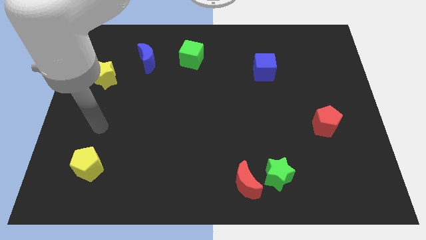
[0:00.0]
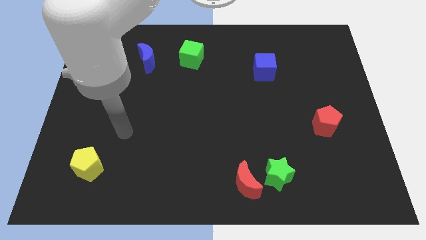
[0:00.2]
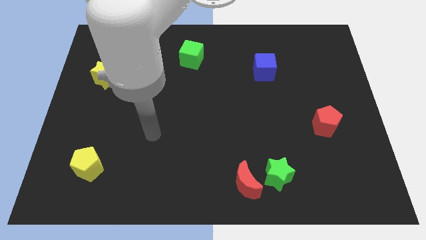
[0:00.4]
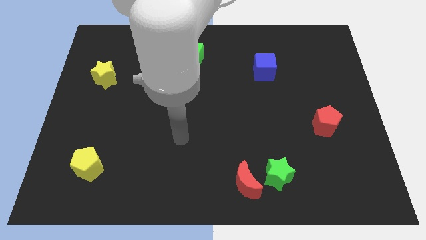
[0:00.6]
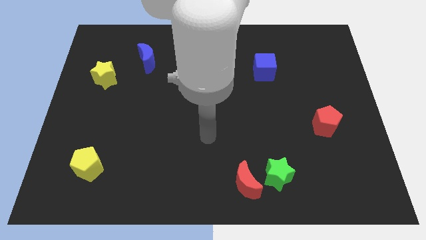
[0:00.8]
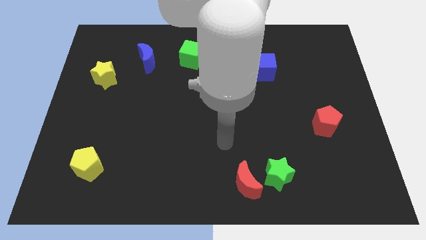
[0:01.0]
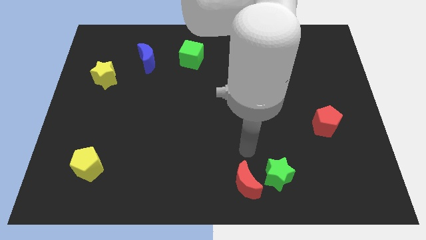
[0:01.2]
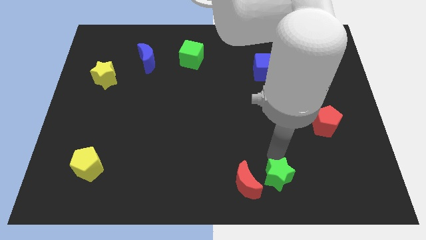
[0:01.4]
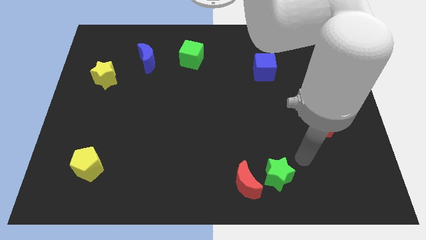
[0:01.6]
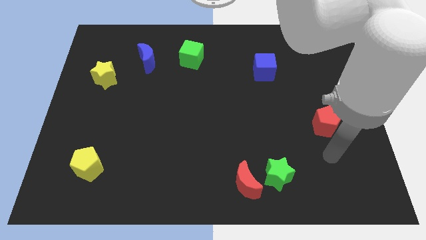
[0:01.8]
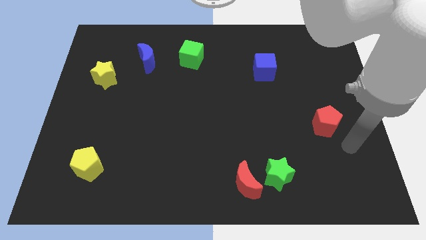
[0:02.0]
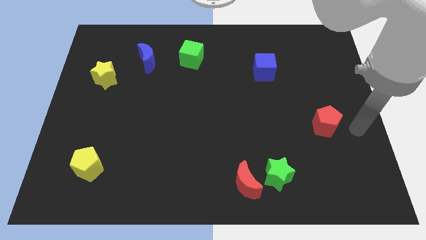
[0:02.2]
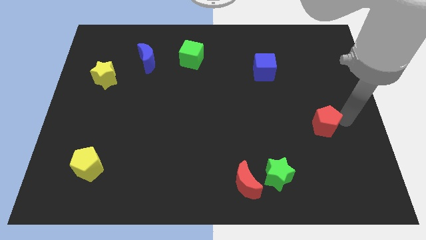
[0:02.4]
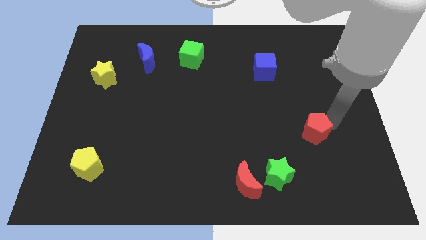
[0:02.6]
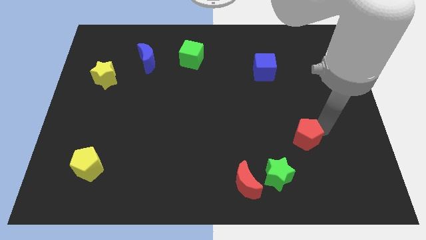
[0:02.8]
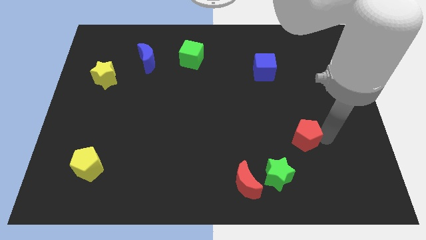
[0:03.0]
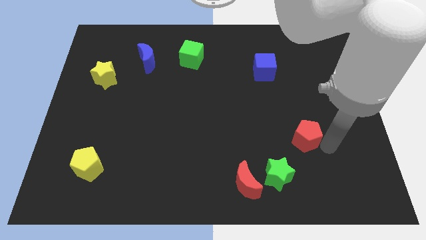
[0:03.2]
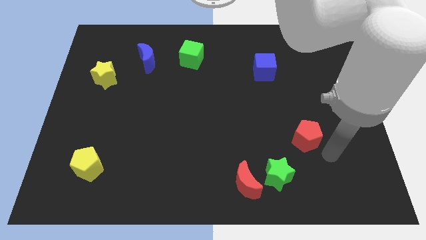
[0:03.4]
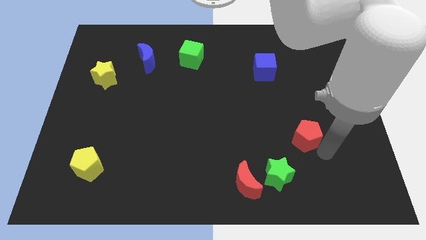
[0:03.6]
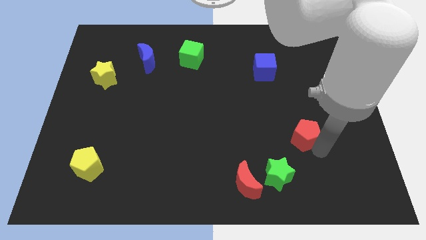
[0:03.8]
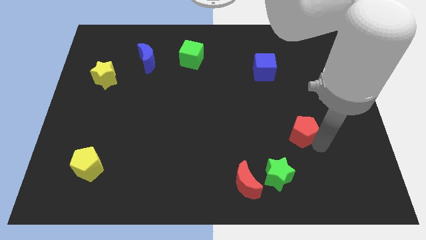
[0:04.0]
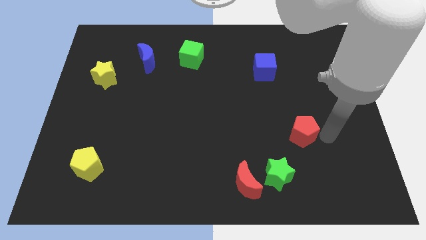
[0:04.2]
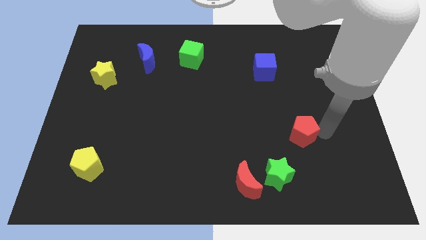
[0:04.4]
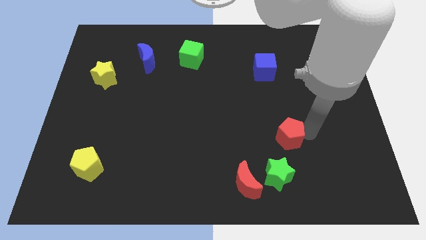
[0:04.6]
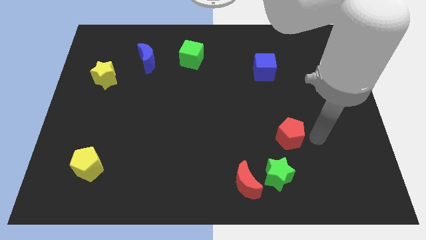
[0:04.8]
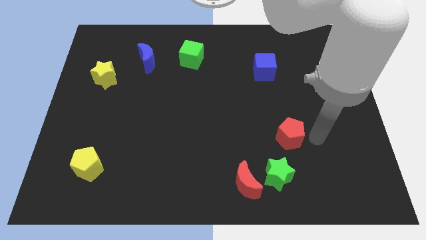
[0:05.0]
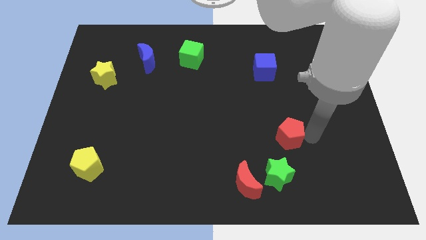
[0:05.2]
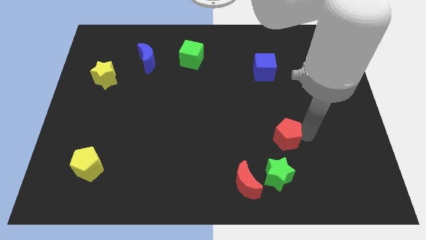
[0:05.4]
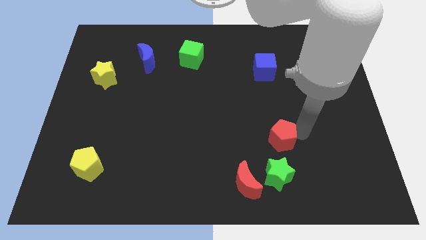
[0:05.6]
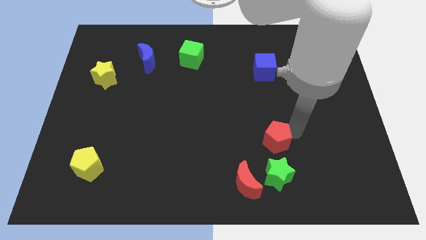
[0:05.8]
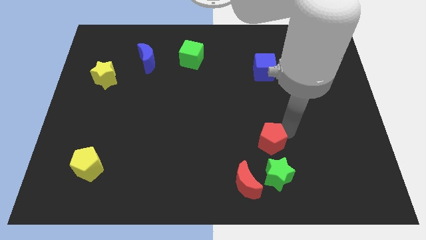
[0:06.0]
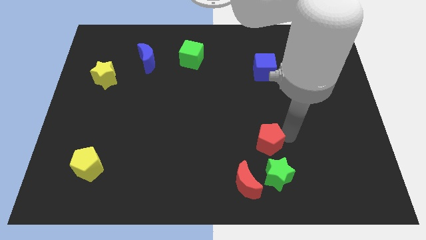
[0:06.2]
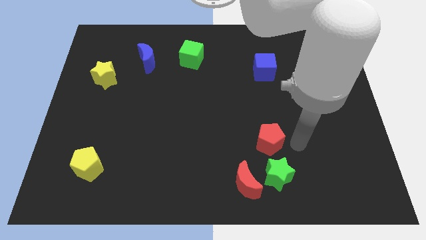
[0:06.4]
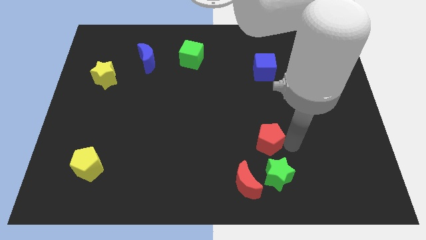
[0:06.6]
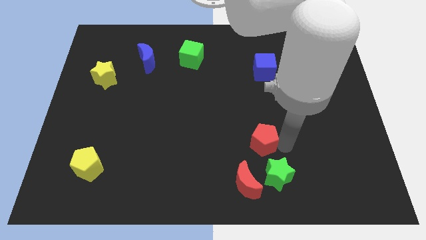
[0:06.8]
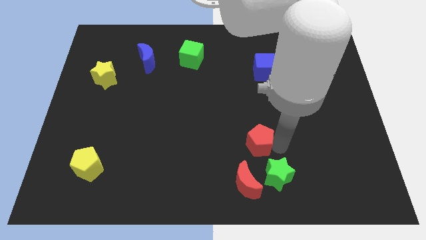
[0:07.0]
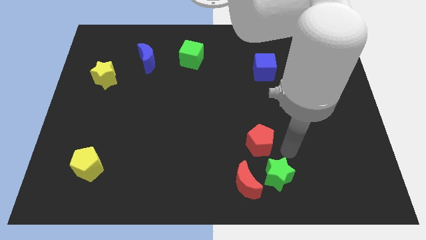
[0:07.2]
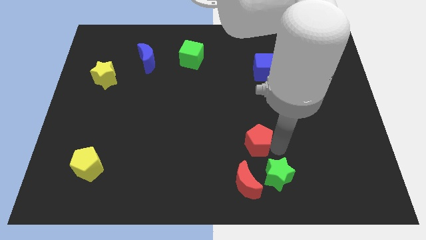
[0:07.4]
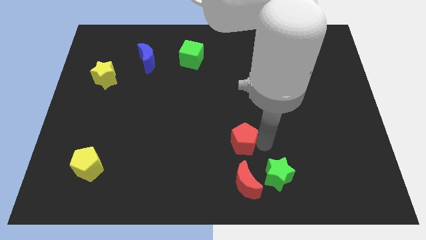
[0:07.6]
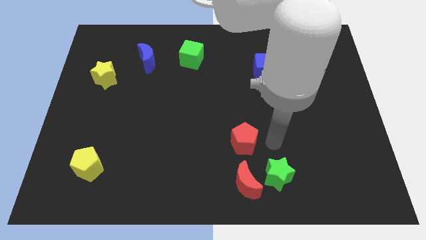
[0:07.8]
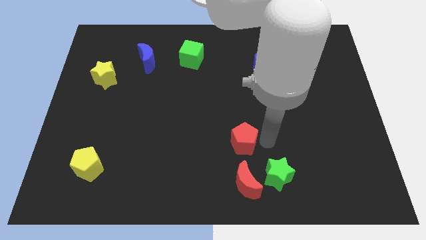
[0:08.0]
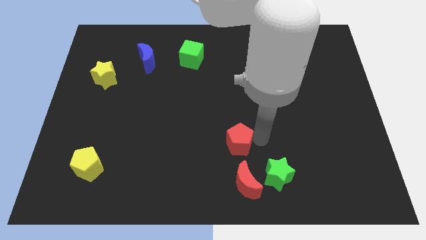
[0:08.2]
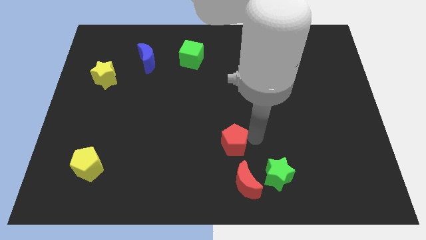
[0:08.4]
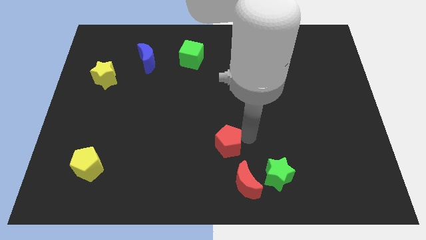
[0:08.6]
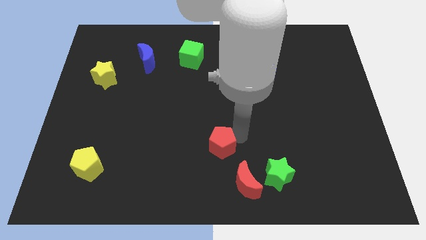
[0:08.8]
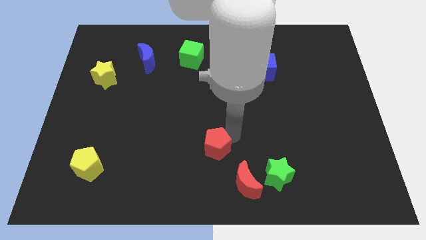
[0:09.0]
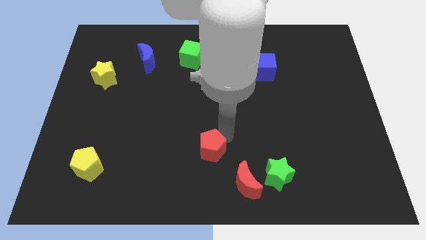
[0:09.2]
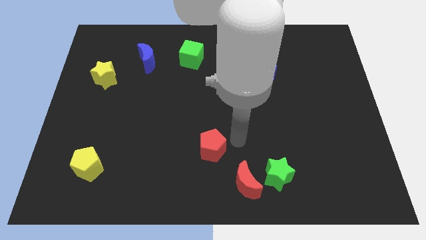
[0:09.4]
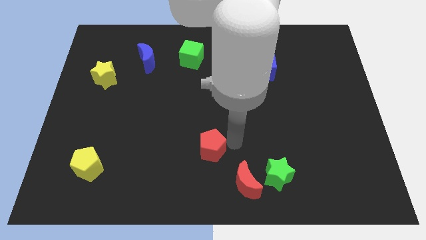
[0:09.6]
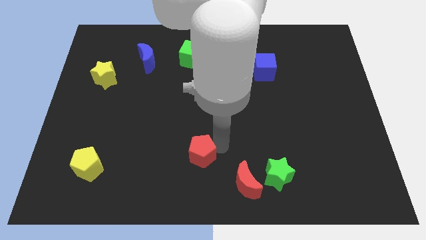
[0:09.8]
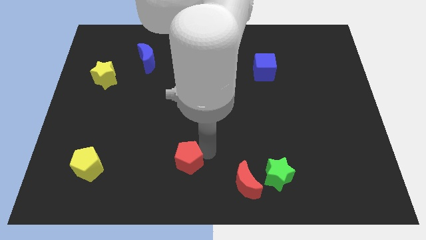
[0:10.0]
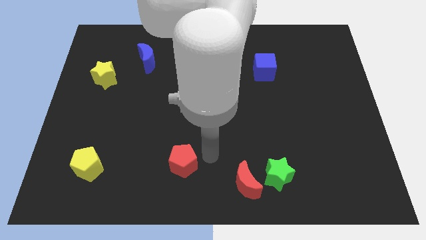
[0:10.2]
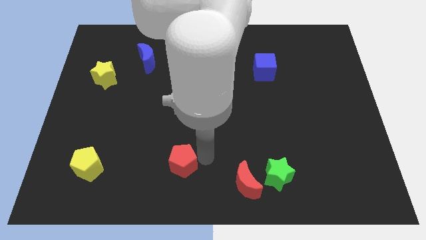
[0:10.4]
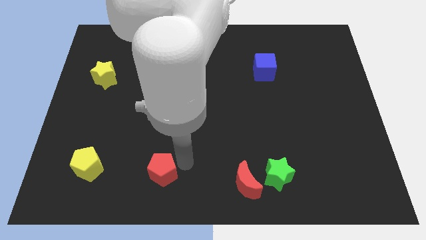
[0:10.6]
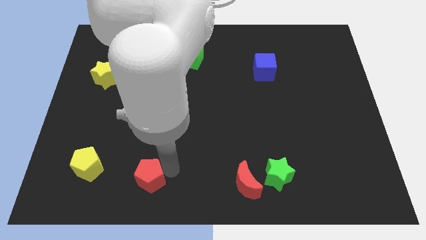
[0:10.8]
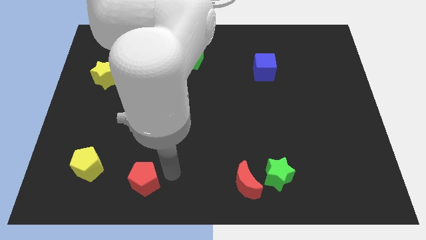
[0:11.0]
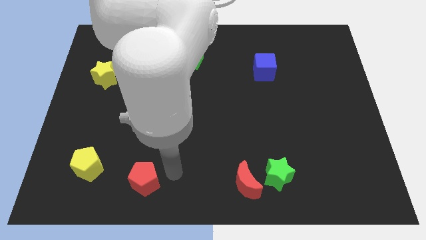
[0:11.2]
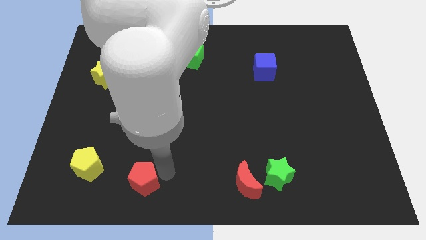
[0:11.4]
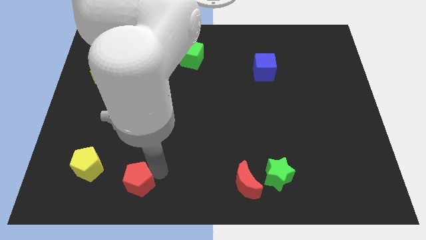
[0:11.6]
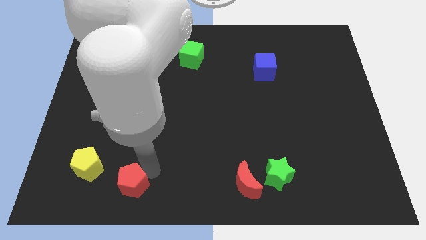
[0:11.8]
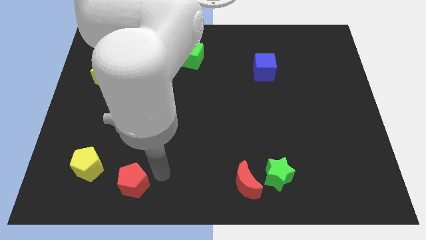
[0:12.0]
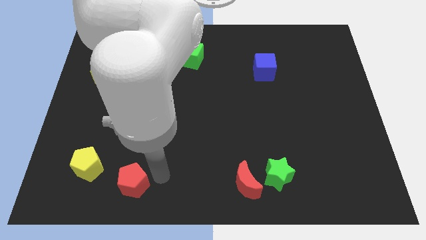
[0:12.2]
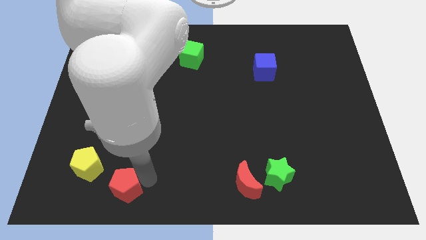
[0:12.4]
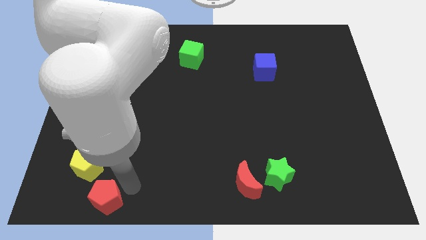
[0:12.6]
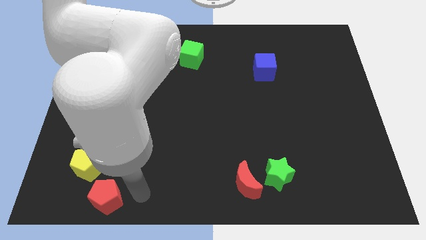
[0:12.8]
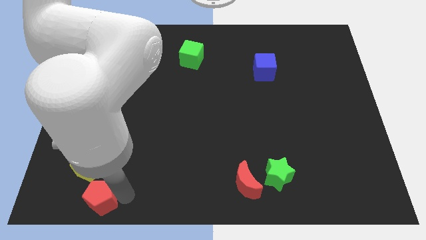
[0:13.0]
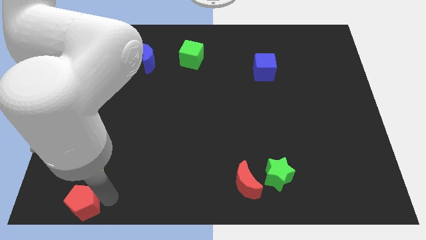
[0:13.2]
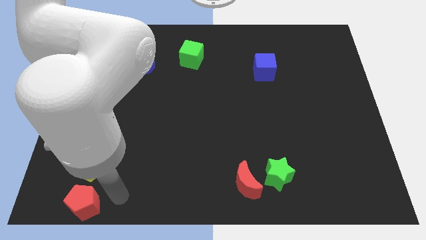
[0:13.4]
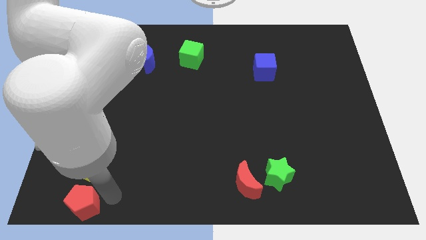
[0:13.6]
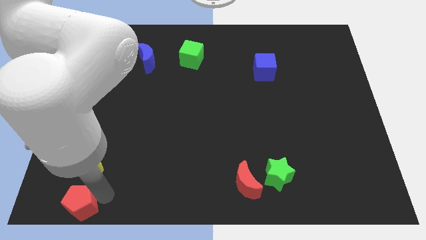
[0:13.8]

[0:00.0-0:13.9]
push the red pentagon to the bottom left
